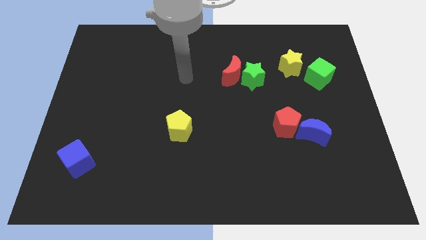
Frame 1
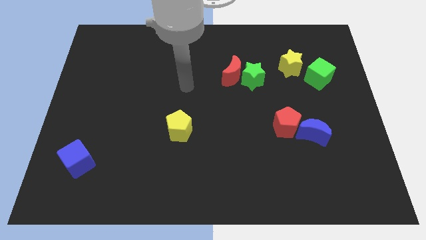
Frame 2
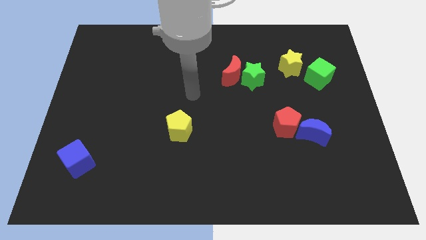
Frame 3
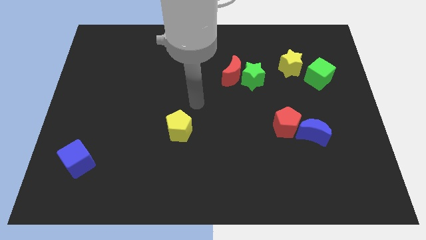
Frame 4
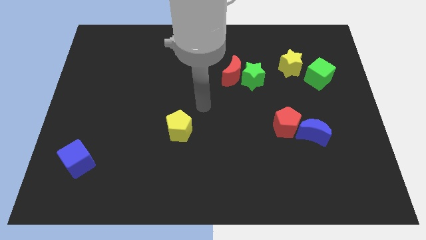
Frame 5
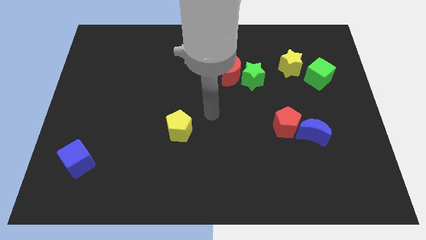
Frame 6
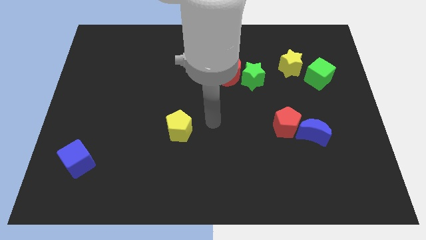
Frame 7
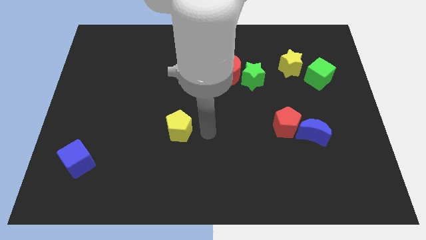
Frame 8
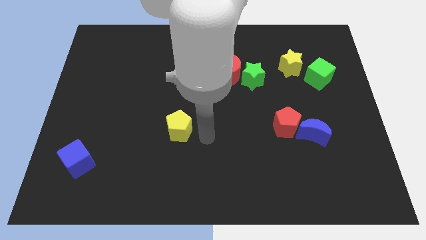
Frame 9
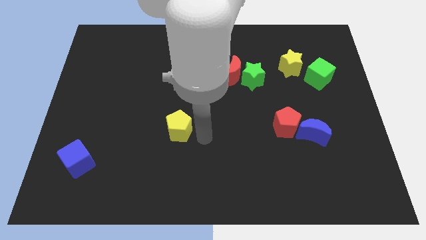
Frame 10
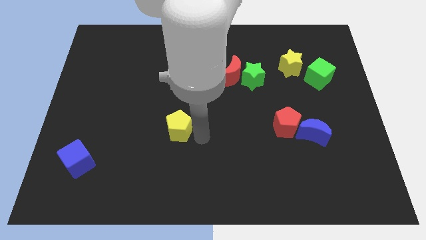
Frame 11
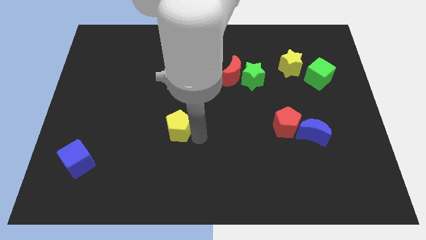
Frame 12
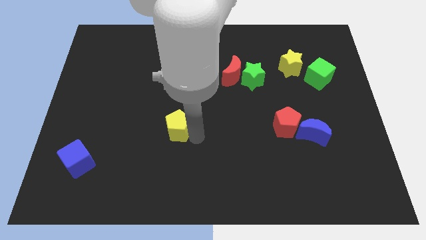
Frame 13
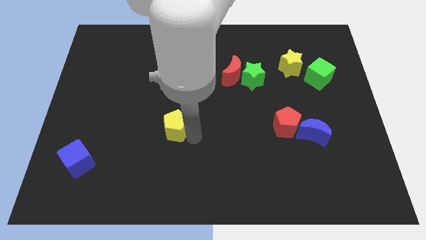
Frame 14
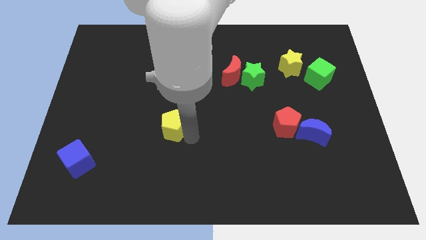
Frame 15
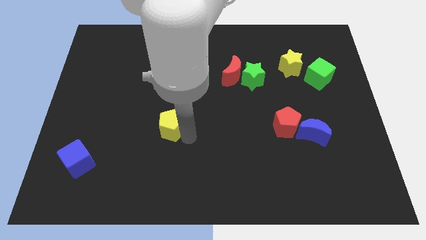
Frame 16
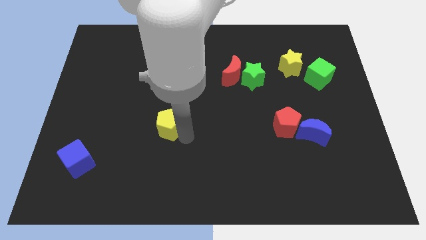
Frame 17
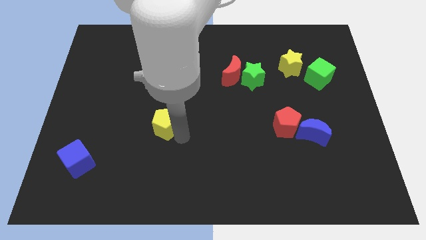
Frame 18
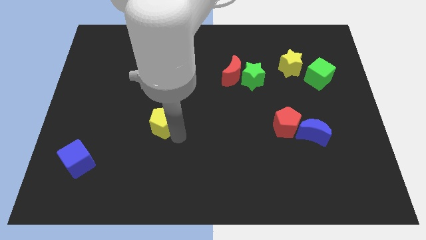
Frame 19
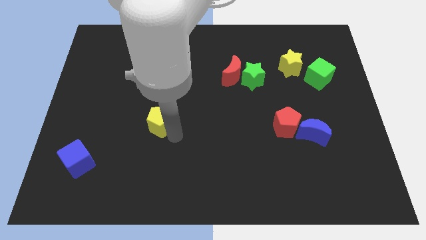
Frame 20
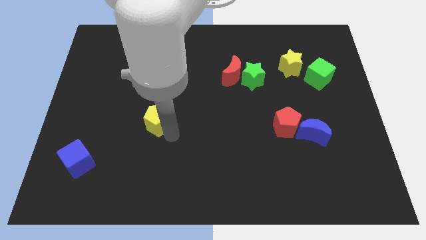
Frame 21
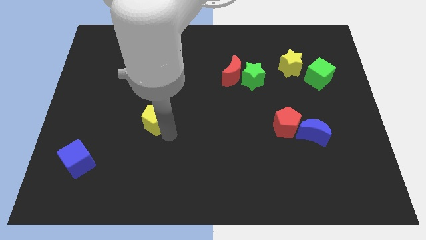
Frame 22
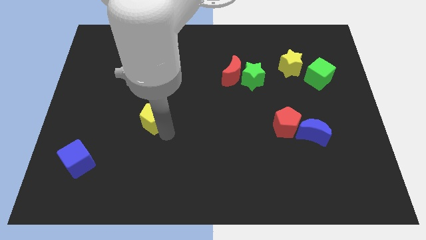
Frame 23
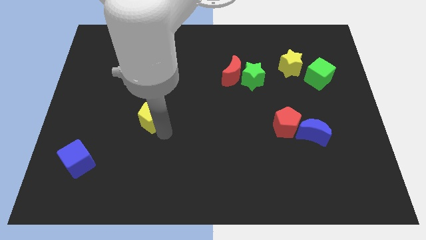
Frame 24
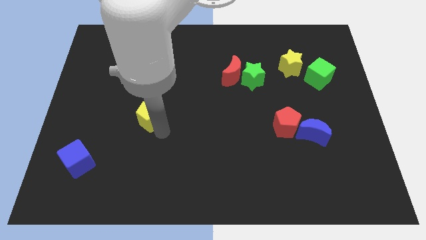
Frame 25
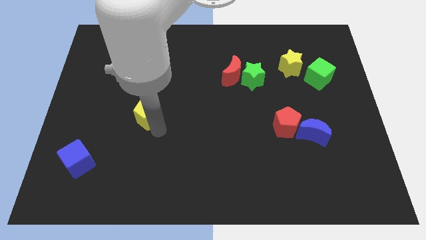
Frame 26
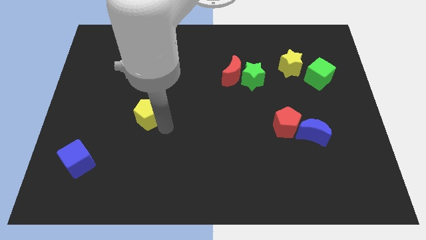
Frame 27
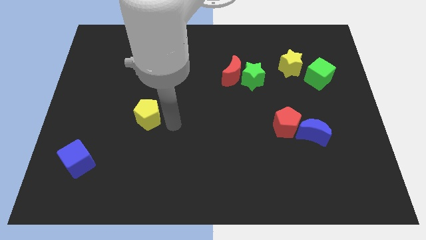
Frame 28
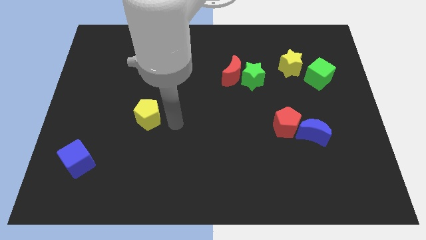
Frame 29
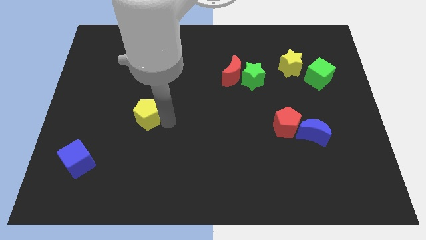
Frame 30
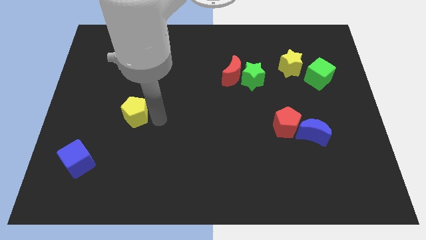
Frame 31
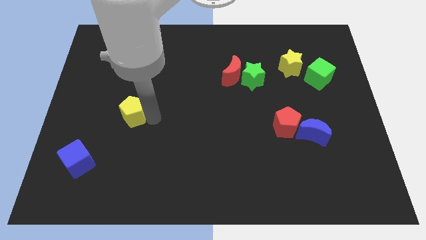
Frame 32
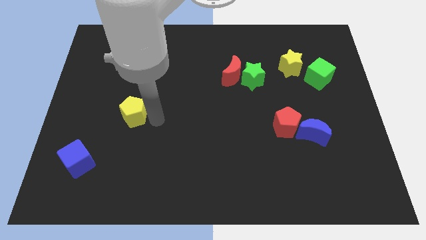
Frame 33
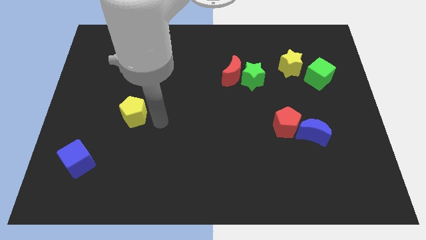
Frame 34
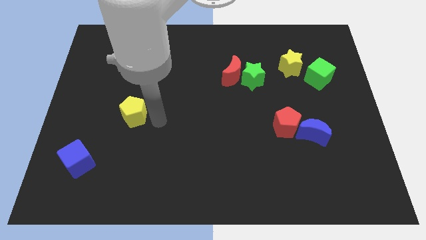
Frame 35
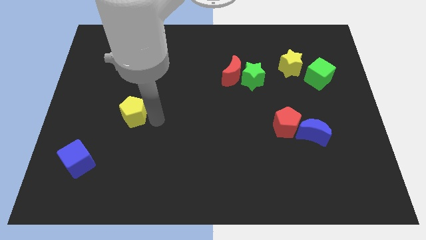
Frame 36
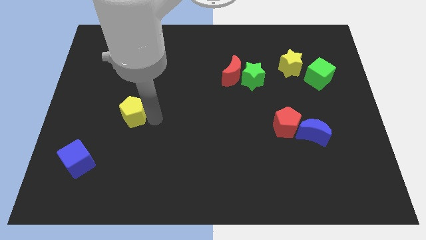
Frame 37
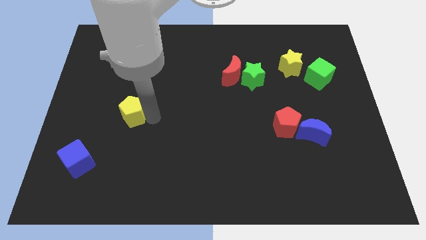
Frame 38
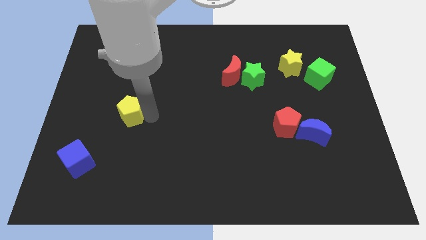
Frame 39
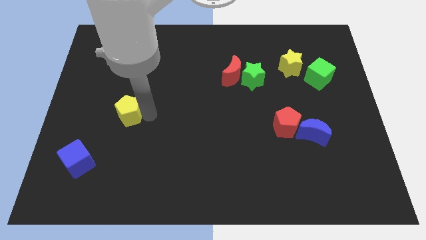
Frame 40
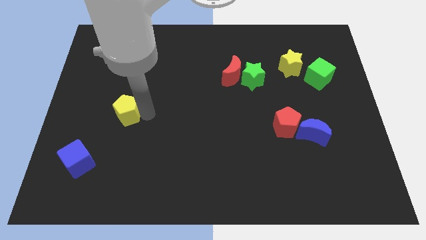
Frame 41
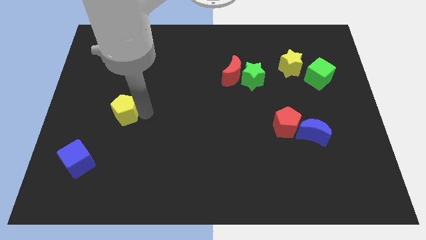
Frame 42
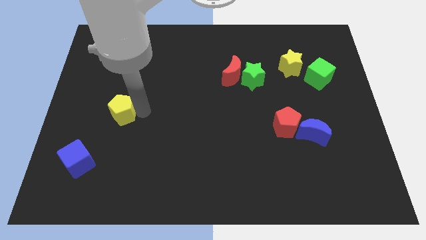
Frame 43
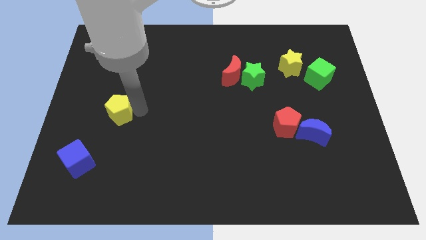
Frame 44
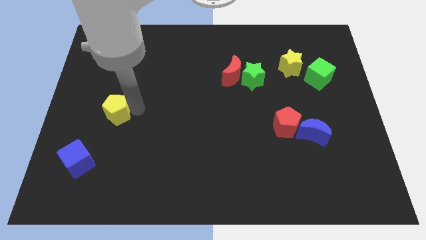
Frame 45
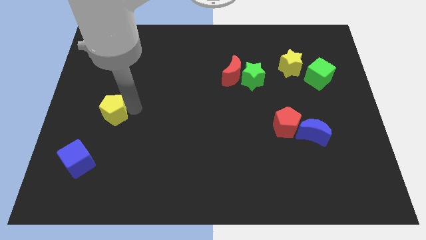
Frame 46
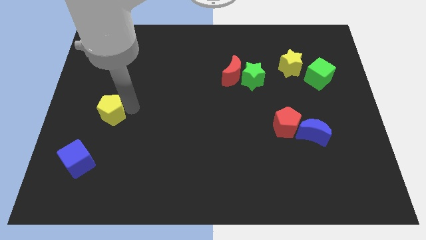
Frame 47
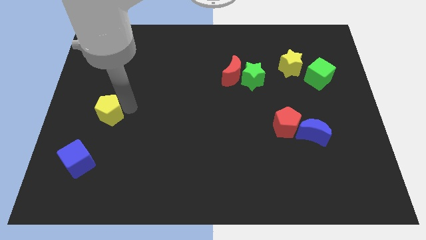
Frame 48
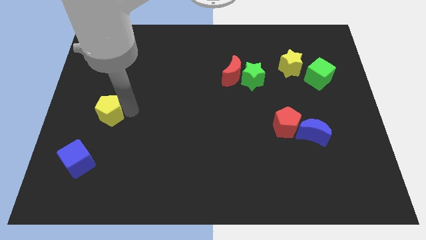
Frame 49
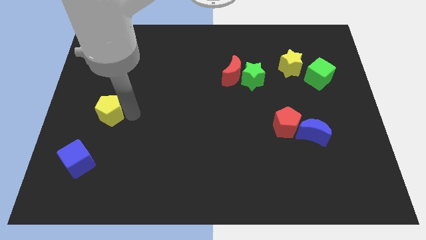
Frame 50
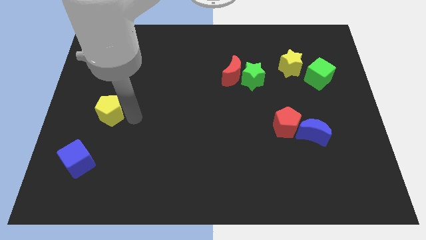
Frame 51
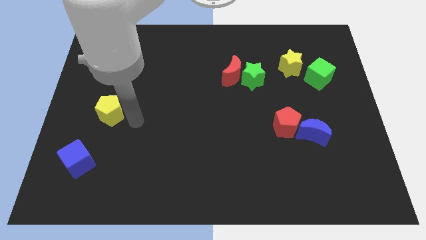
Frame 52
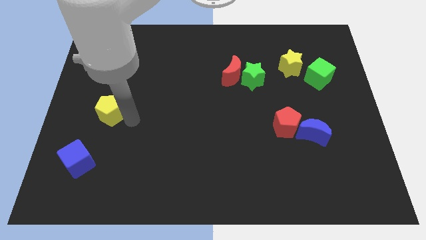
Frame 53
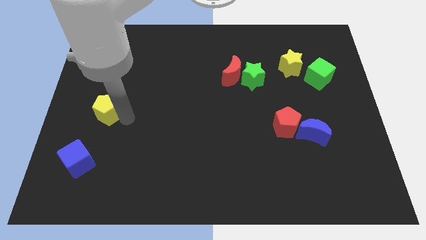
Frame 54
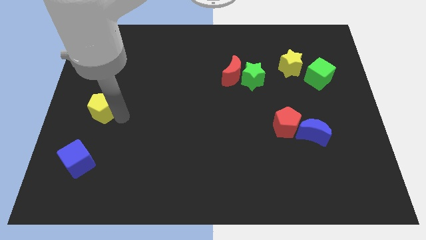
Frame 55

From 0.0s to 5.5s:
put the yellow pentagon to the center left

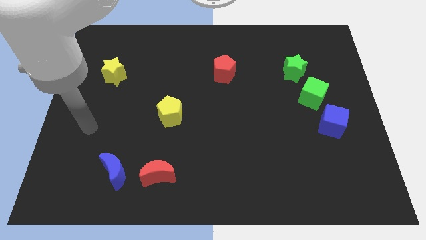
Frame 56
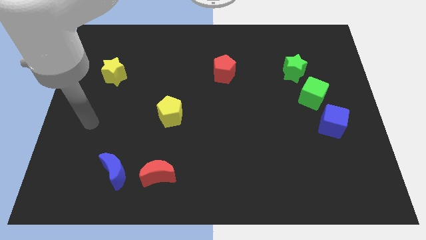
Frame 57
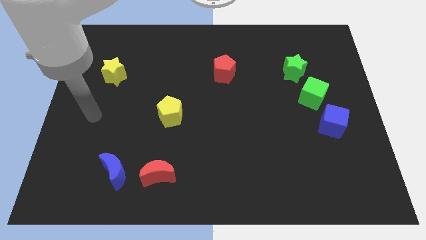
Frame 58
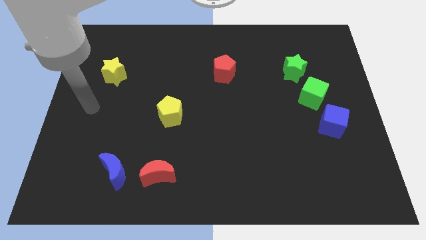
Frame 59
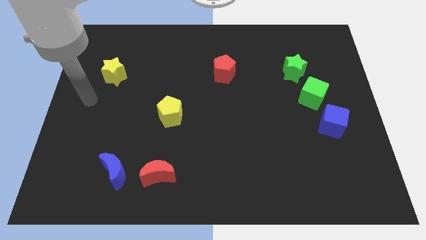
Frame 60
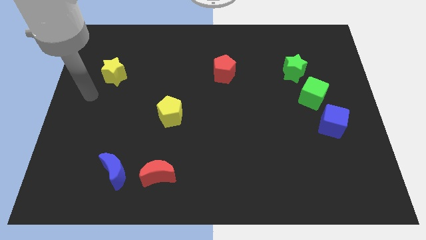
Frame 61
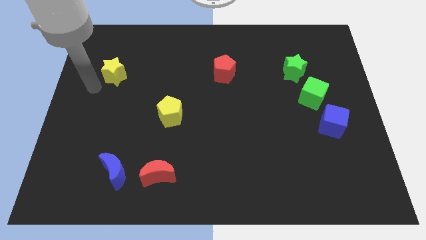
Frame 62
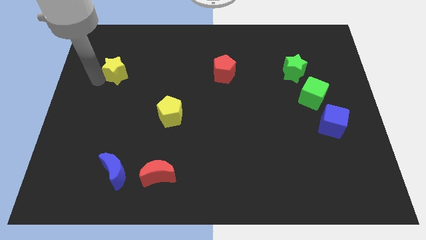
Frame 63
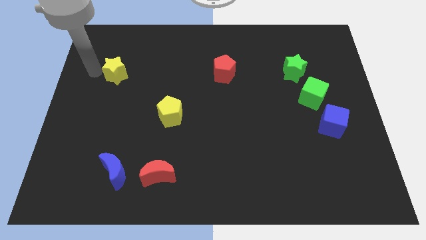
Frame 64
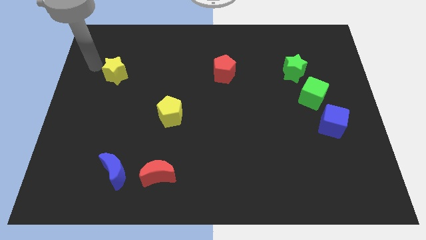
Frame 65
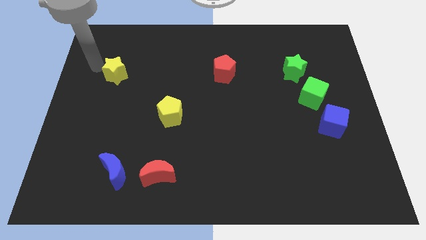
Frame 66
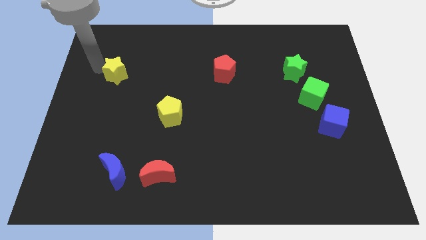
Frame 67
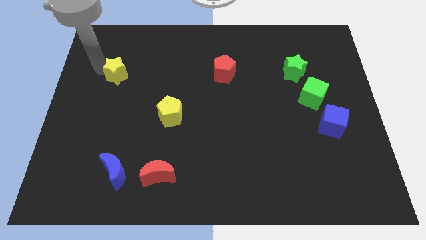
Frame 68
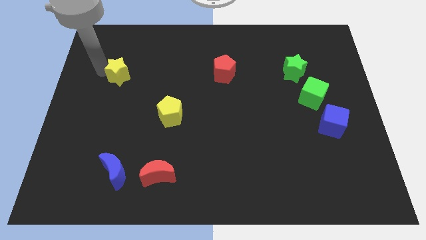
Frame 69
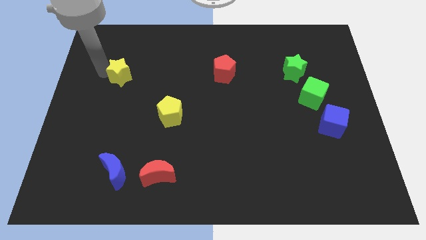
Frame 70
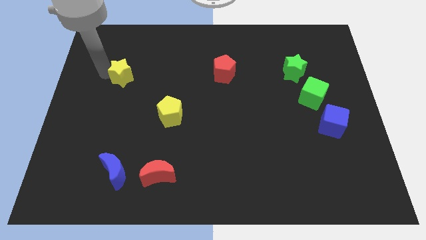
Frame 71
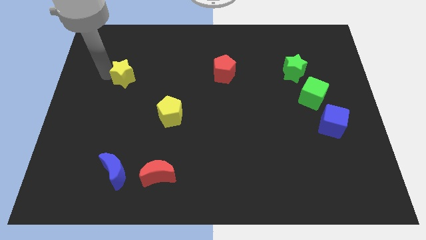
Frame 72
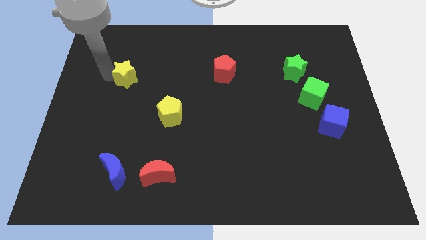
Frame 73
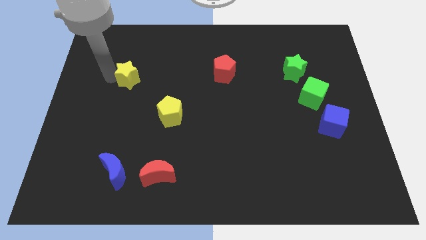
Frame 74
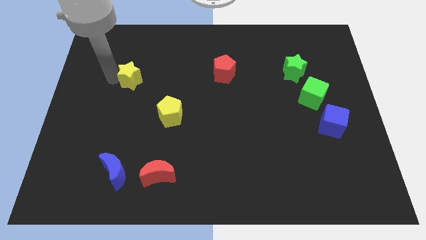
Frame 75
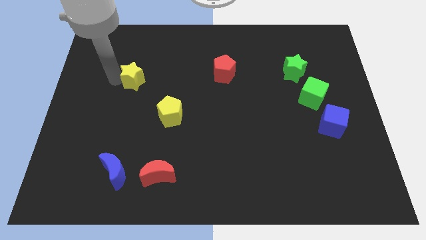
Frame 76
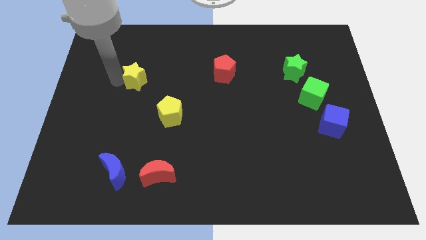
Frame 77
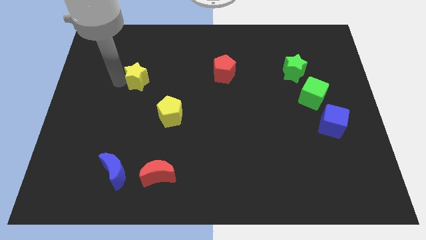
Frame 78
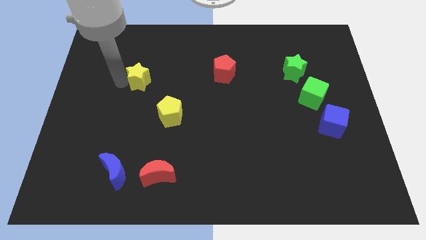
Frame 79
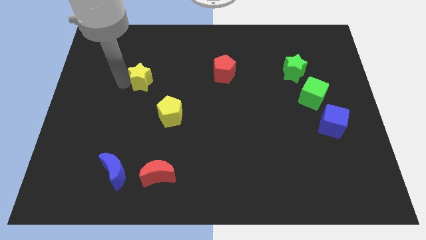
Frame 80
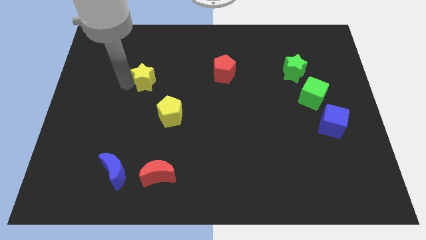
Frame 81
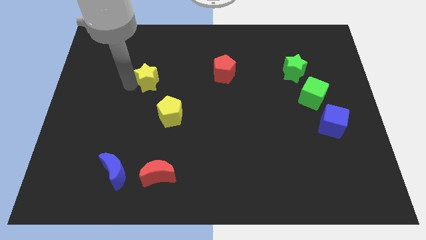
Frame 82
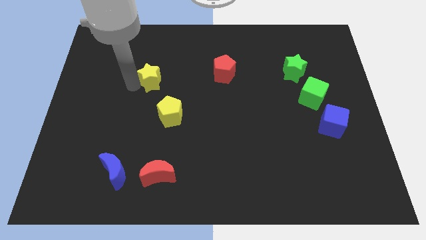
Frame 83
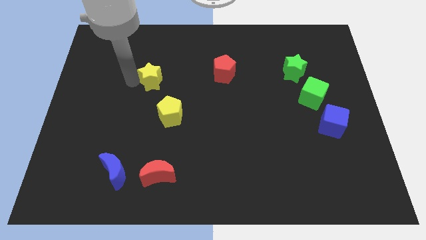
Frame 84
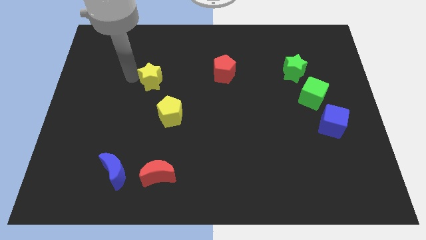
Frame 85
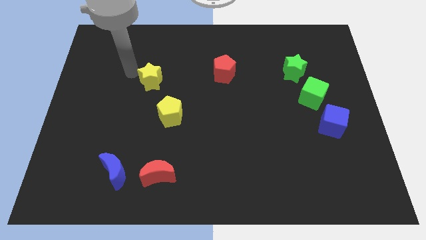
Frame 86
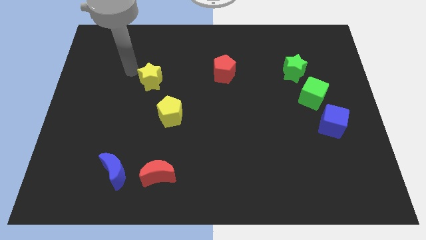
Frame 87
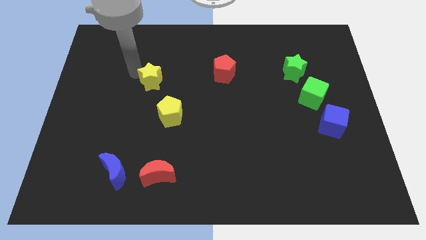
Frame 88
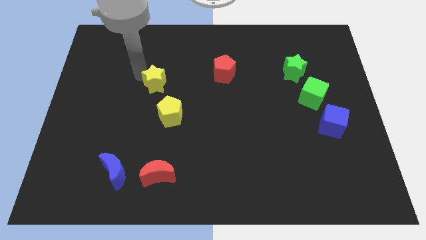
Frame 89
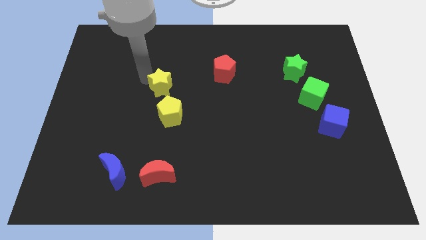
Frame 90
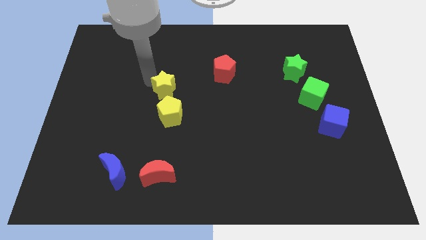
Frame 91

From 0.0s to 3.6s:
move the yellow star to the center of the board
